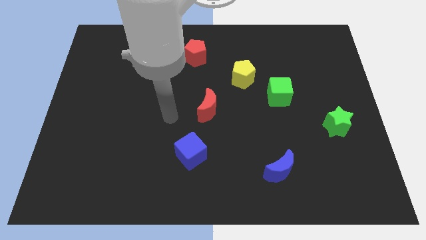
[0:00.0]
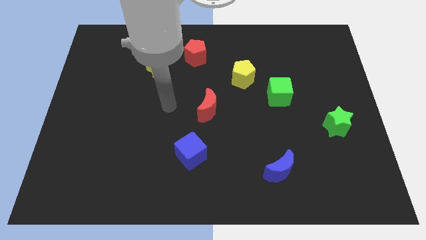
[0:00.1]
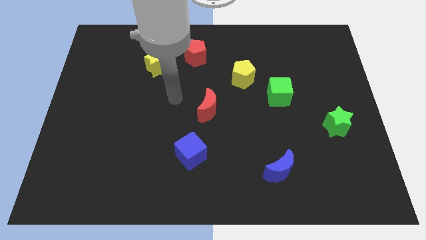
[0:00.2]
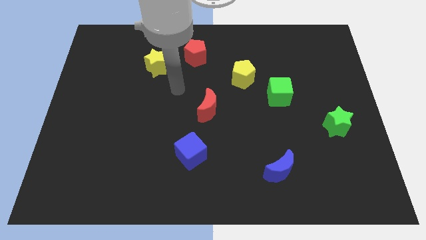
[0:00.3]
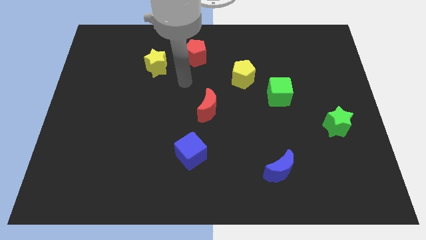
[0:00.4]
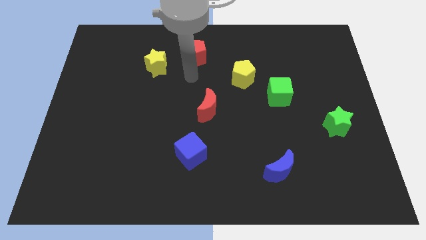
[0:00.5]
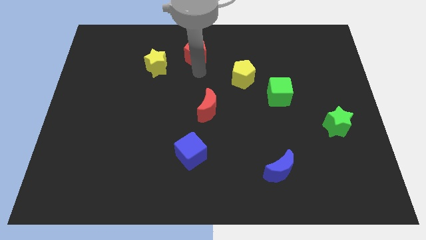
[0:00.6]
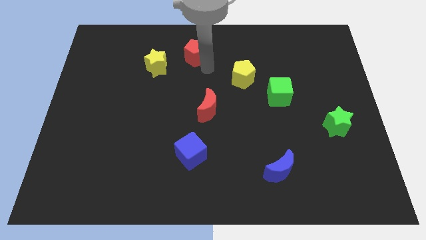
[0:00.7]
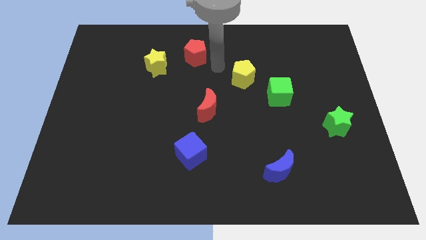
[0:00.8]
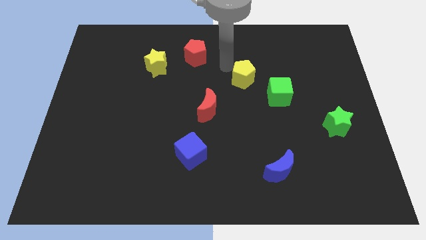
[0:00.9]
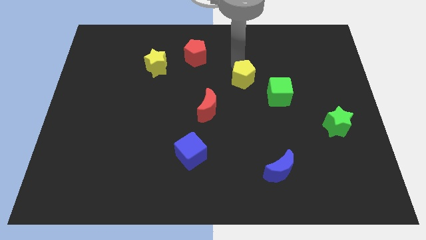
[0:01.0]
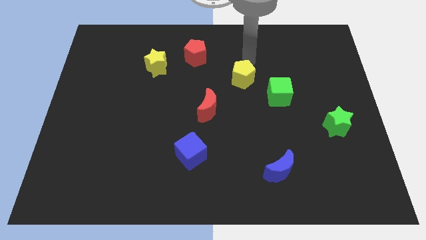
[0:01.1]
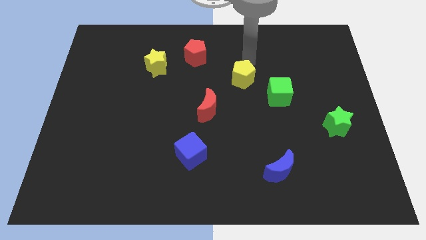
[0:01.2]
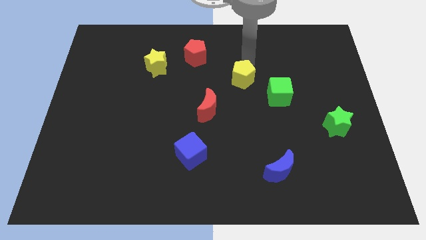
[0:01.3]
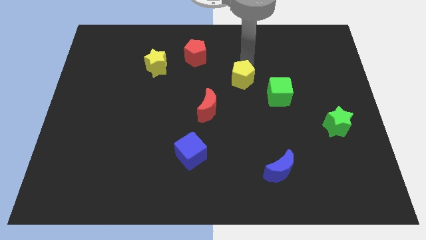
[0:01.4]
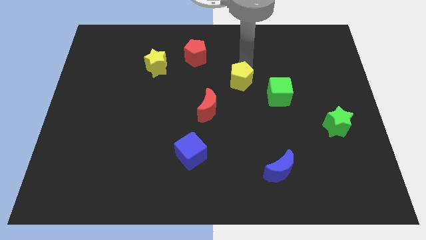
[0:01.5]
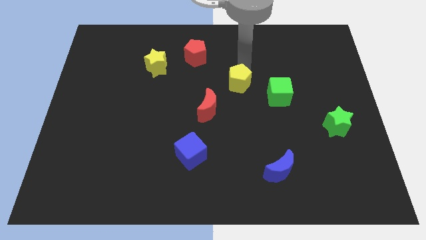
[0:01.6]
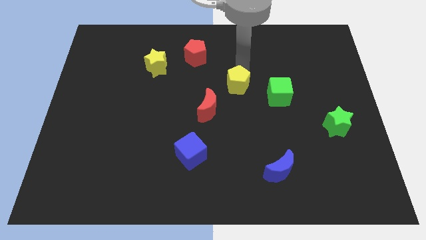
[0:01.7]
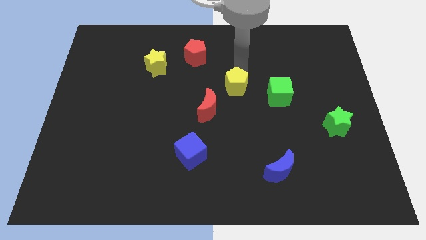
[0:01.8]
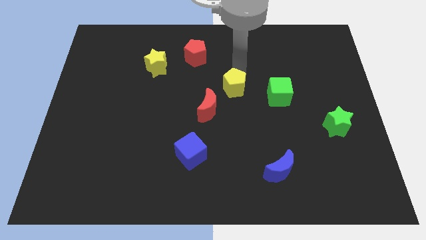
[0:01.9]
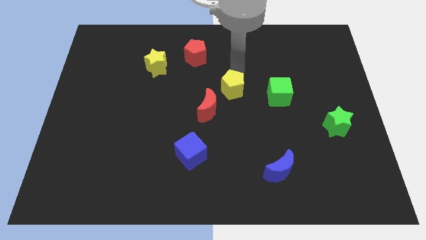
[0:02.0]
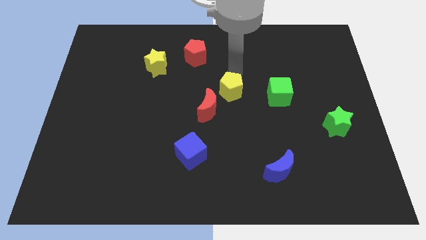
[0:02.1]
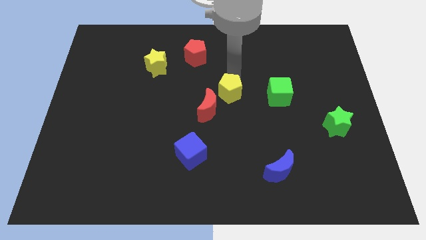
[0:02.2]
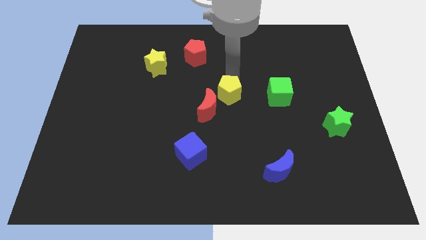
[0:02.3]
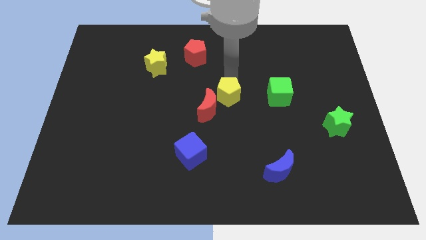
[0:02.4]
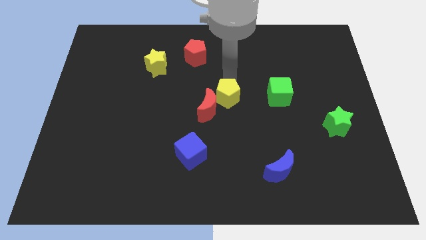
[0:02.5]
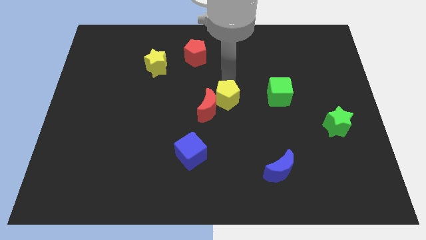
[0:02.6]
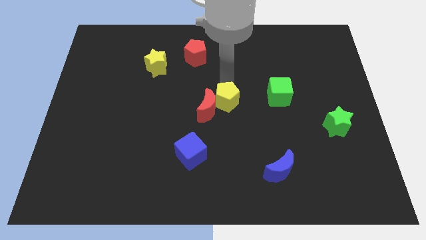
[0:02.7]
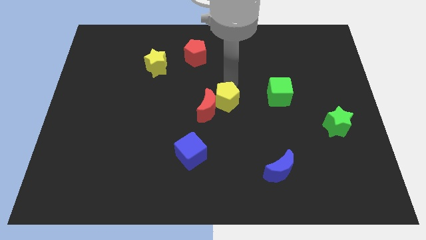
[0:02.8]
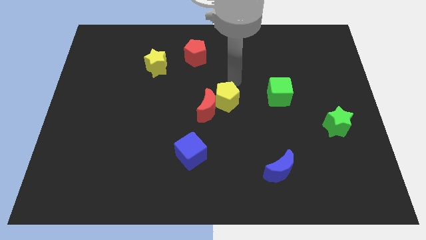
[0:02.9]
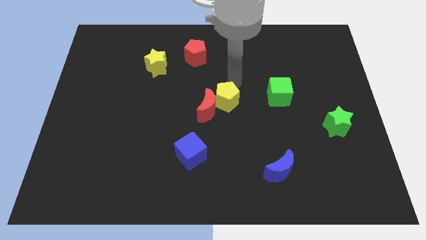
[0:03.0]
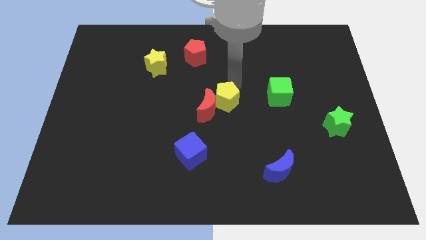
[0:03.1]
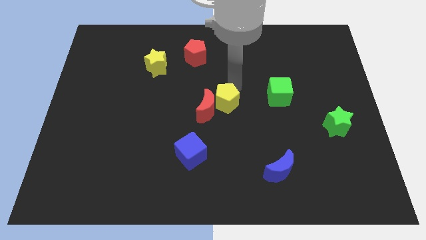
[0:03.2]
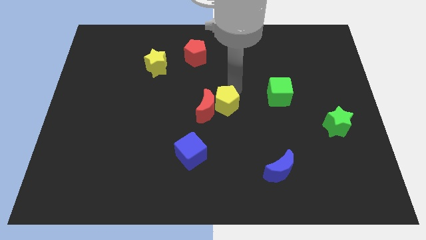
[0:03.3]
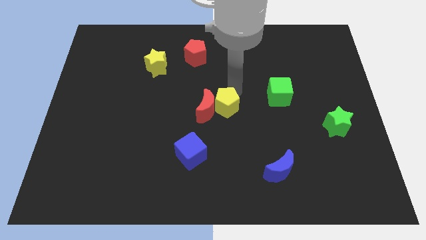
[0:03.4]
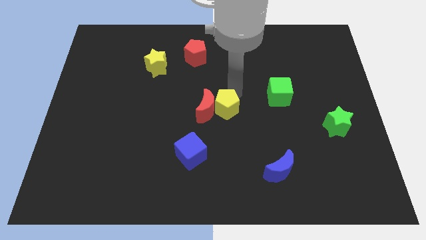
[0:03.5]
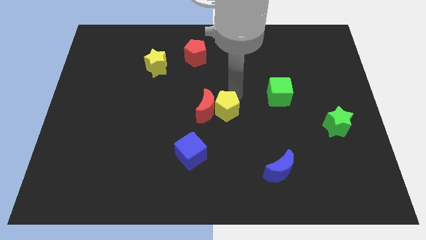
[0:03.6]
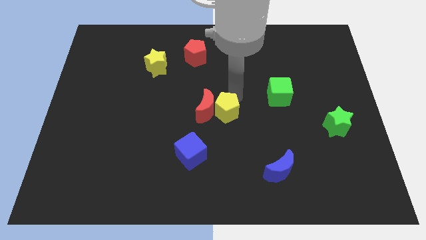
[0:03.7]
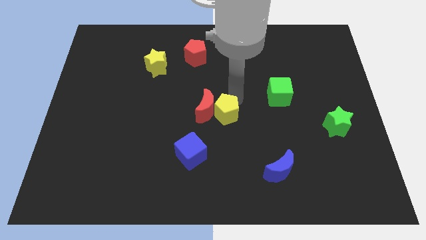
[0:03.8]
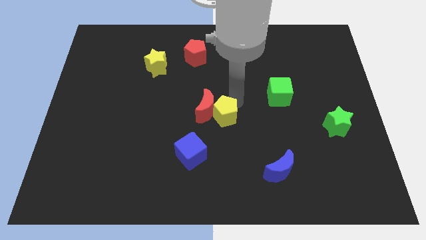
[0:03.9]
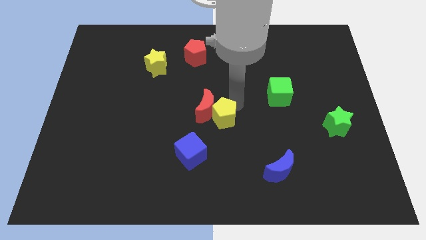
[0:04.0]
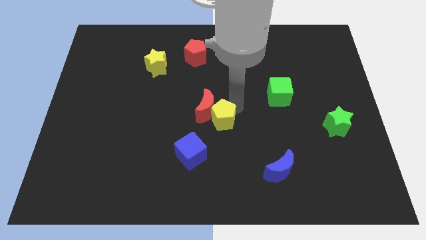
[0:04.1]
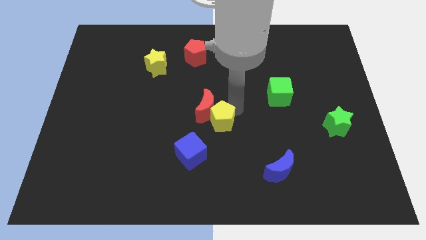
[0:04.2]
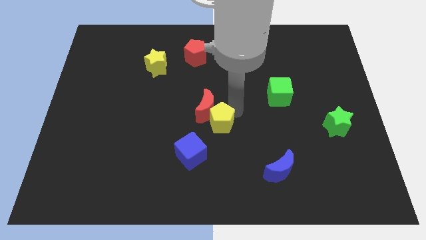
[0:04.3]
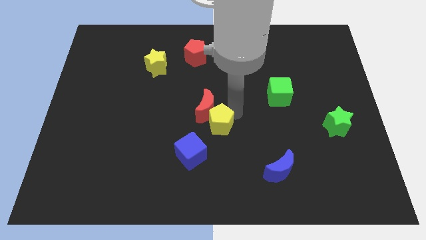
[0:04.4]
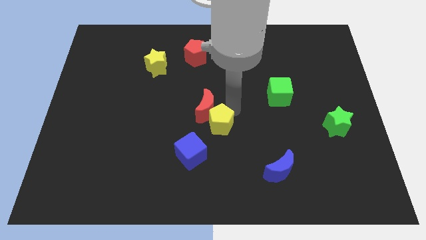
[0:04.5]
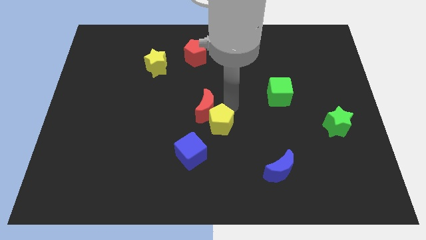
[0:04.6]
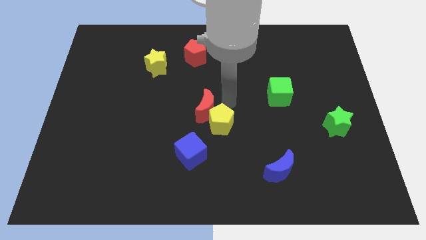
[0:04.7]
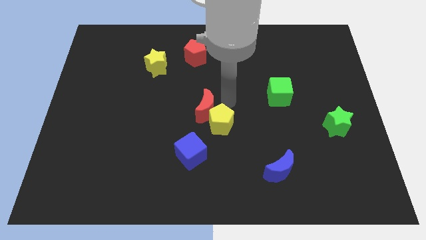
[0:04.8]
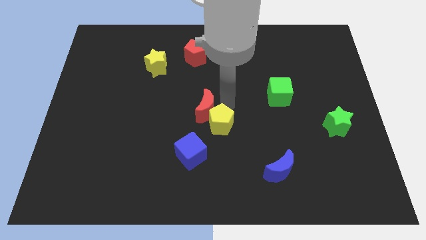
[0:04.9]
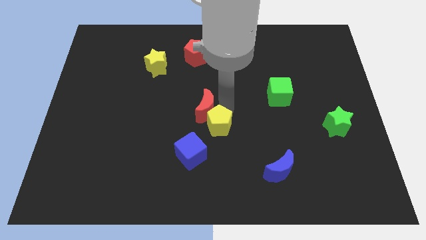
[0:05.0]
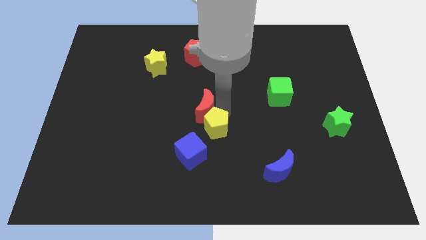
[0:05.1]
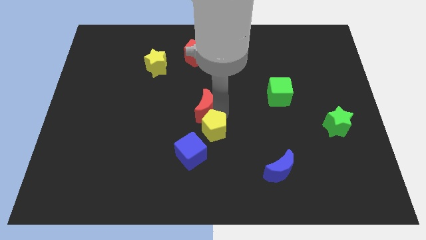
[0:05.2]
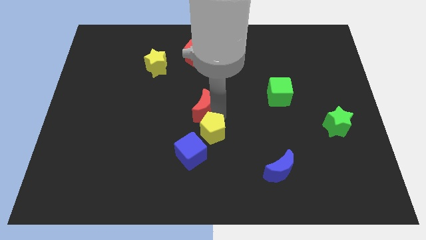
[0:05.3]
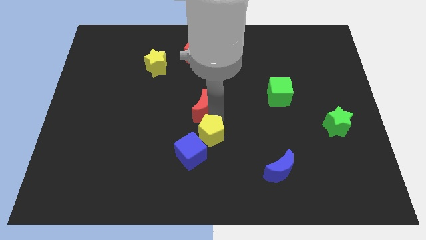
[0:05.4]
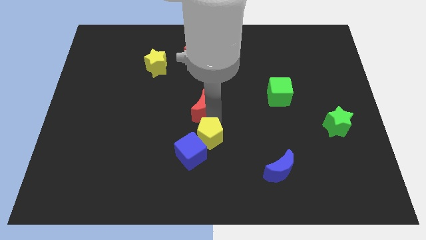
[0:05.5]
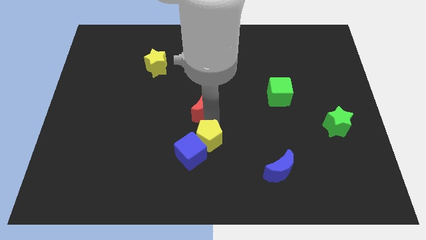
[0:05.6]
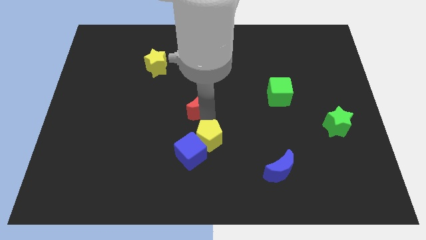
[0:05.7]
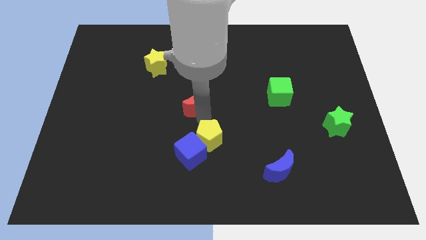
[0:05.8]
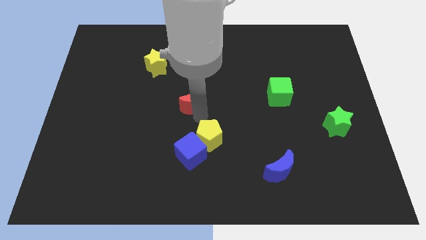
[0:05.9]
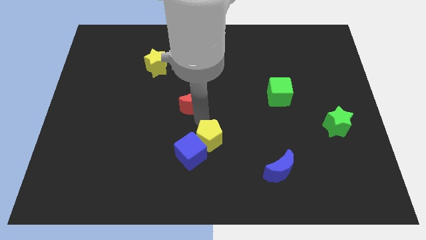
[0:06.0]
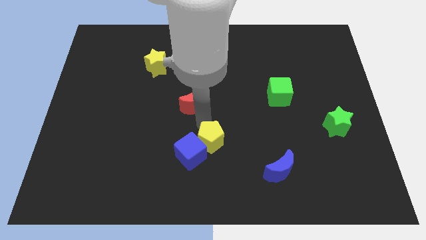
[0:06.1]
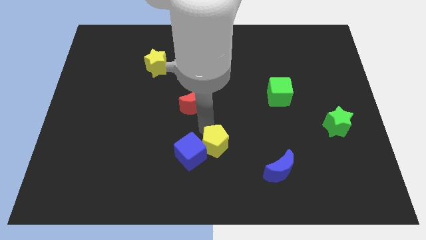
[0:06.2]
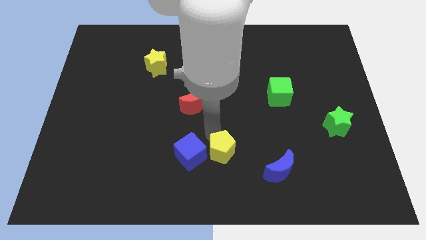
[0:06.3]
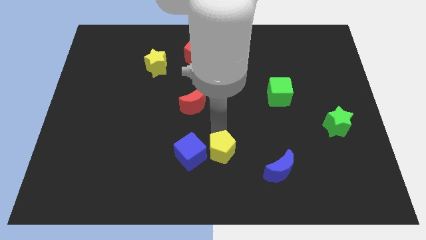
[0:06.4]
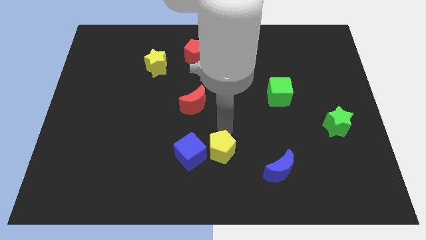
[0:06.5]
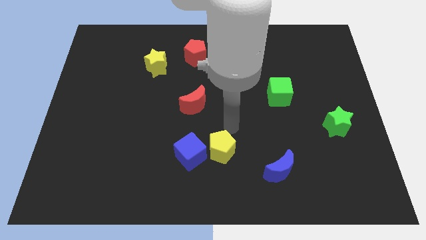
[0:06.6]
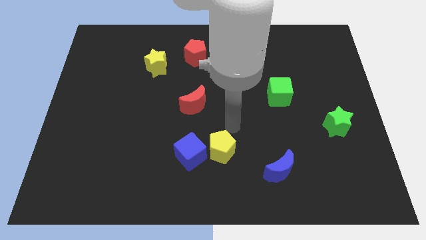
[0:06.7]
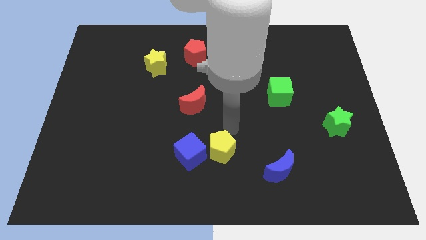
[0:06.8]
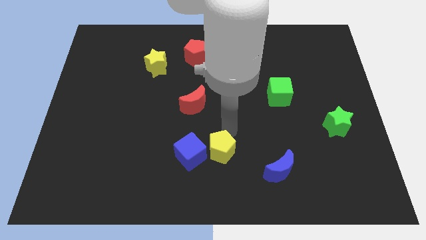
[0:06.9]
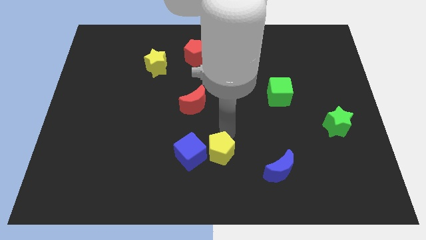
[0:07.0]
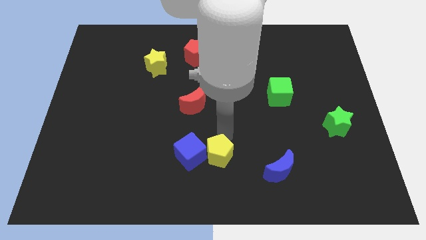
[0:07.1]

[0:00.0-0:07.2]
move the yellow pentagon to the bottom
